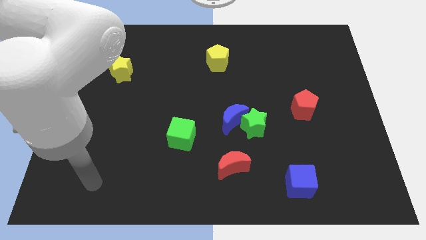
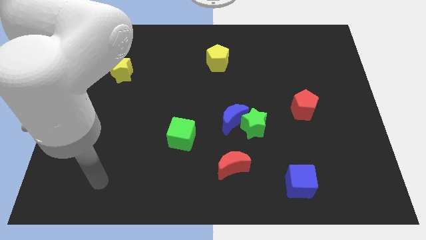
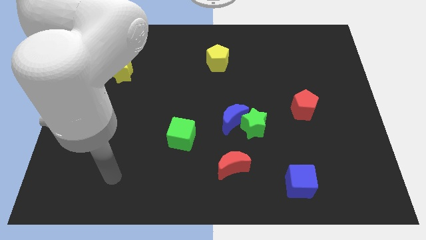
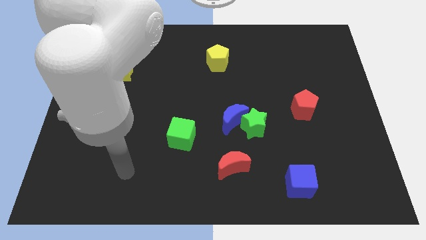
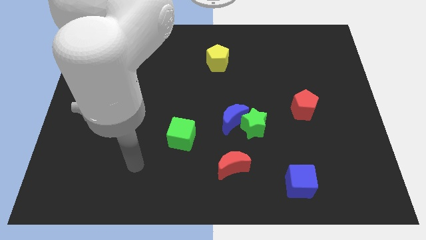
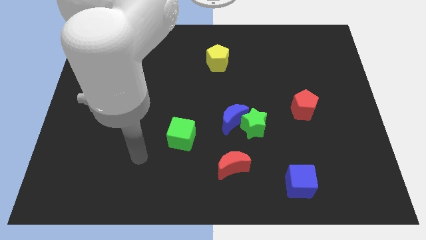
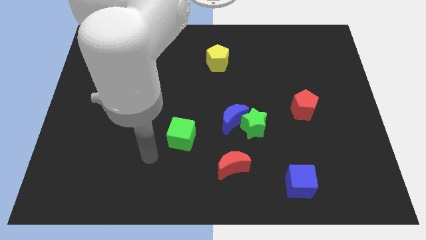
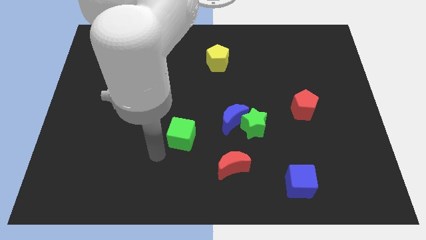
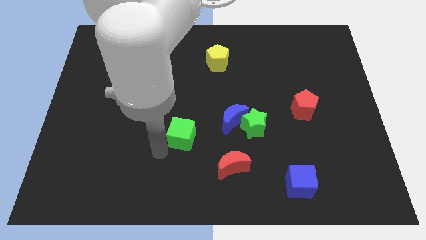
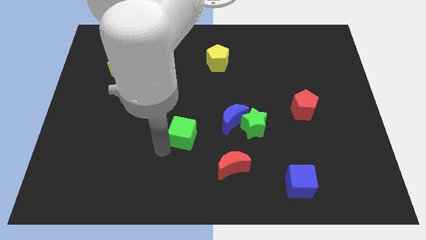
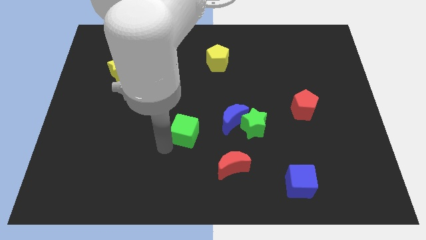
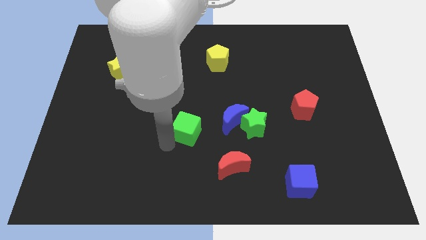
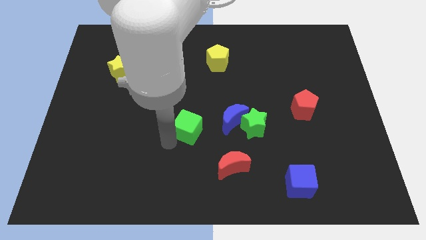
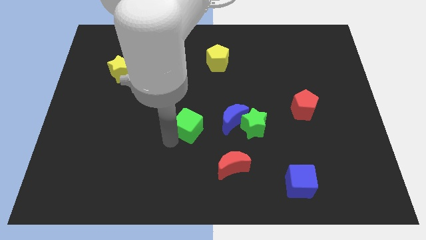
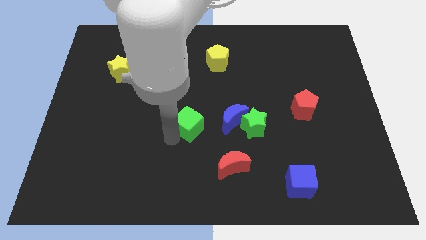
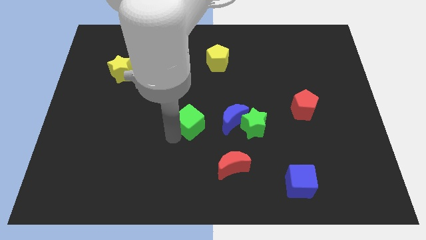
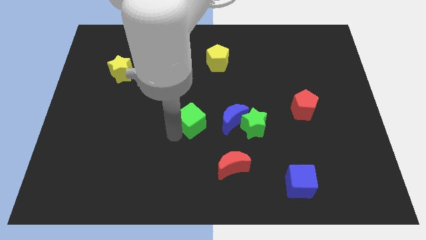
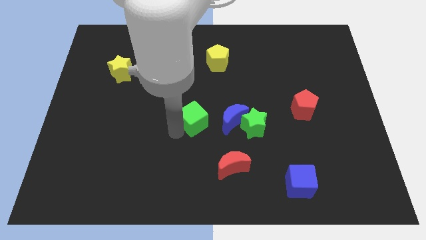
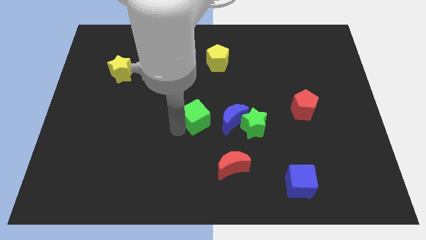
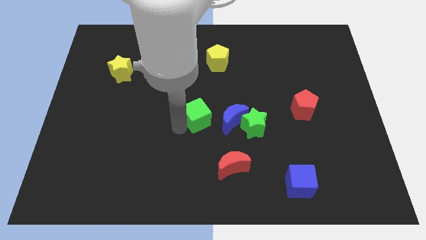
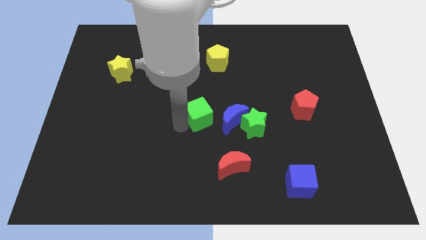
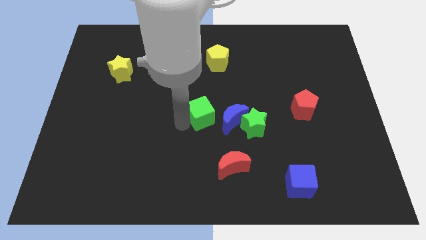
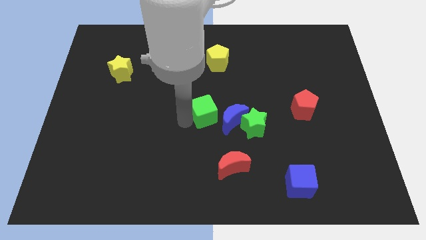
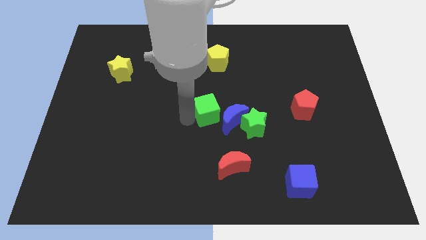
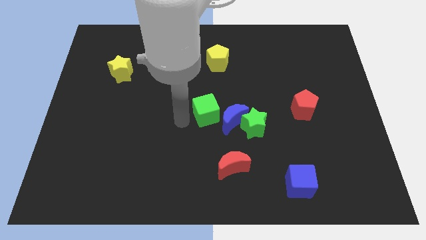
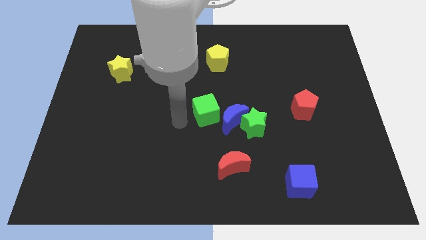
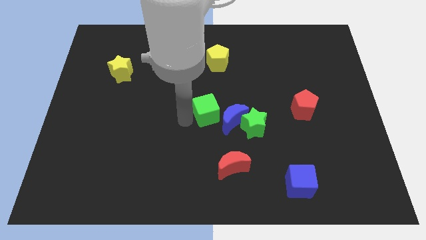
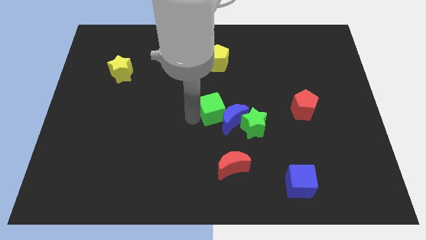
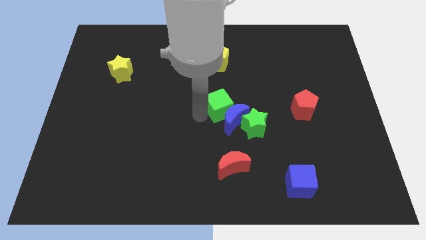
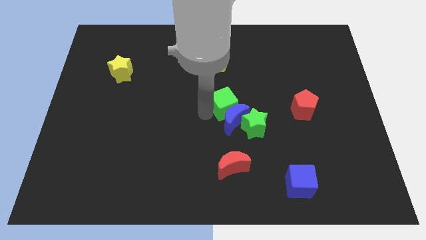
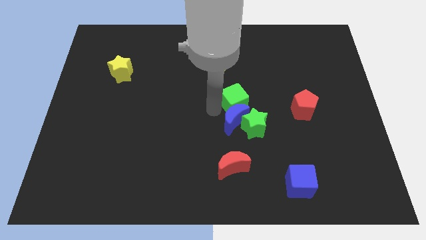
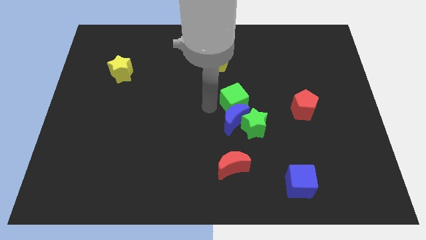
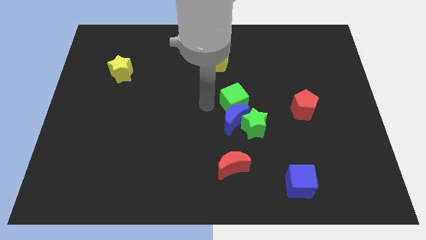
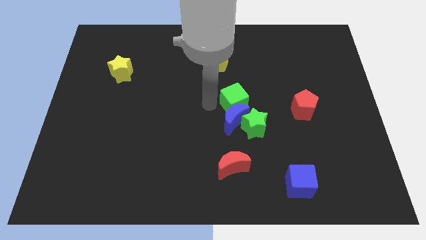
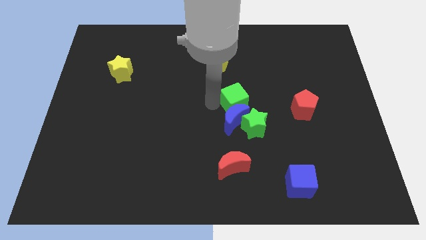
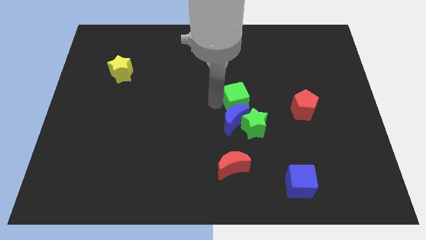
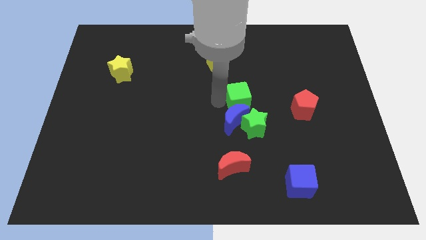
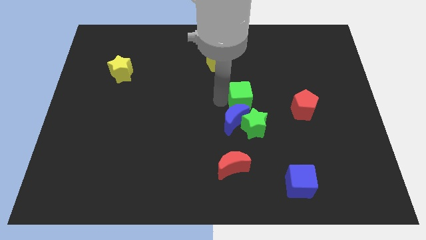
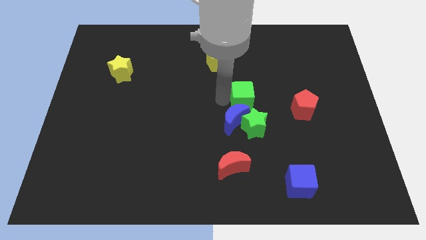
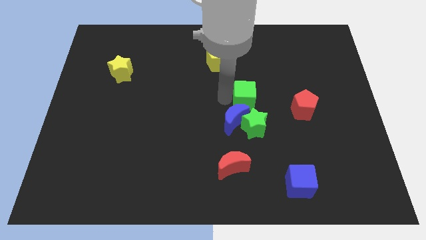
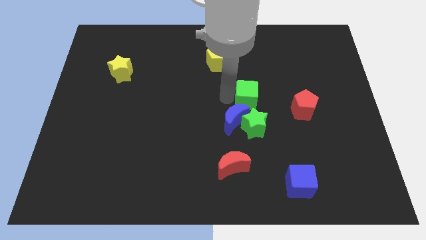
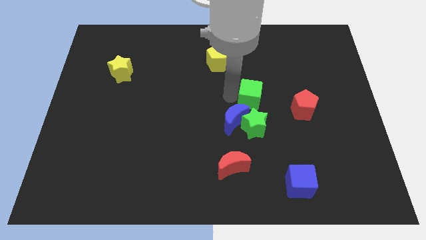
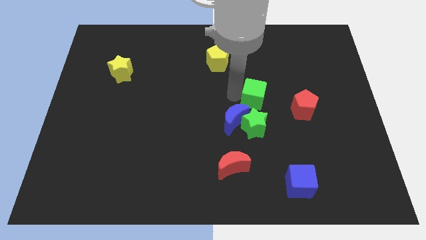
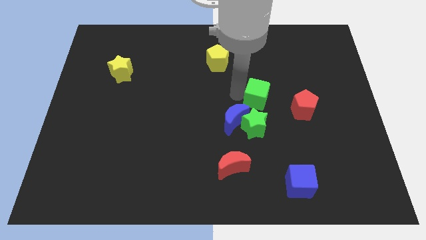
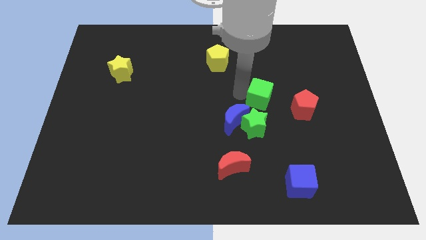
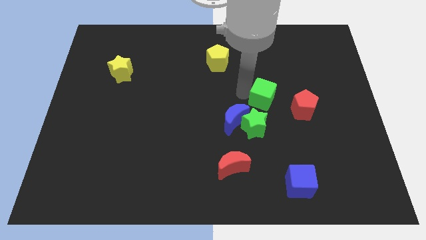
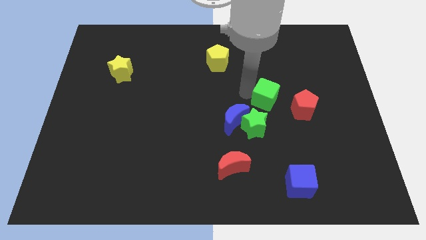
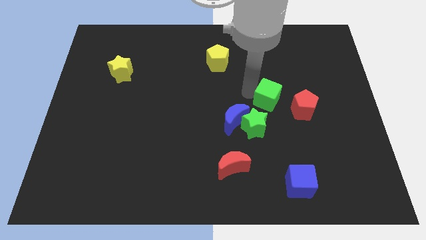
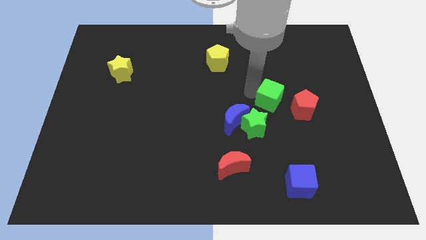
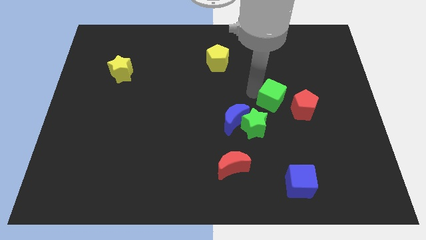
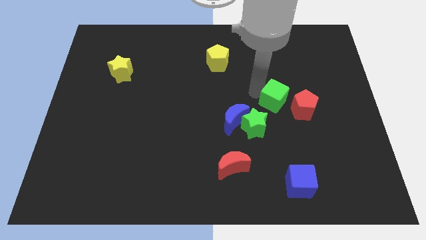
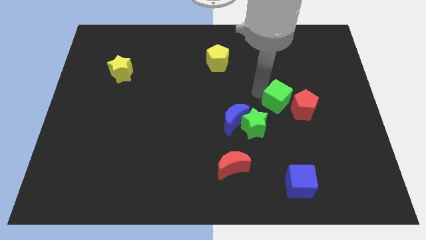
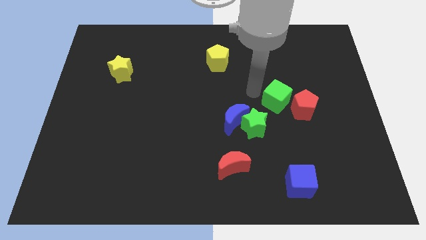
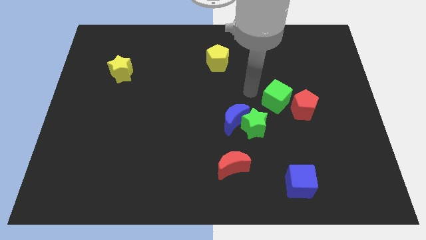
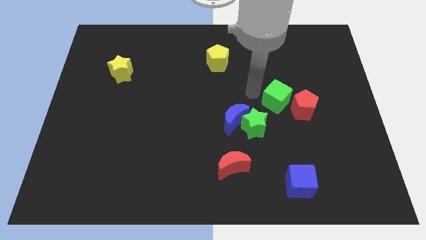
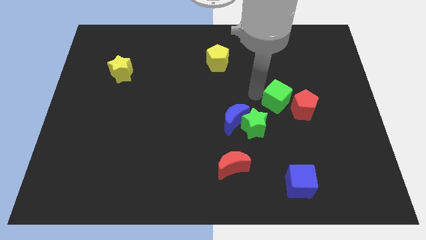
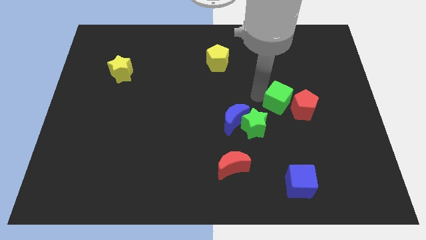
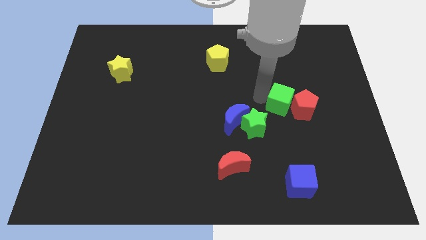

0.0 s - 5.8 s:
move the green cube next to the red pentagon

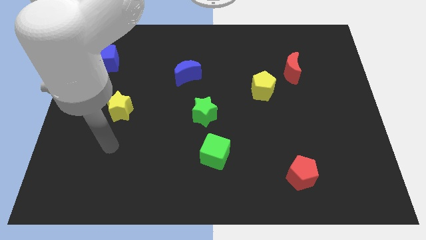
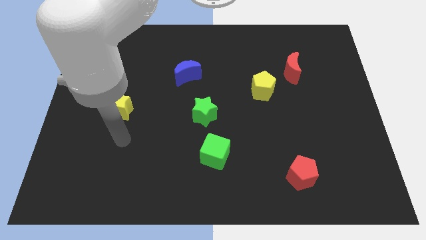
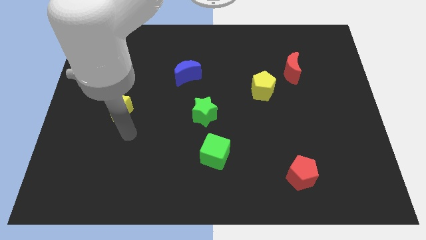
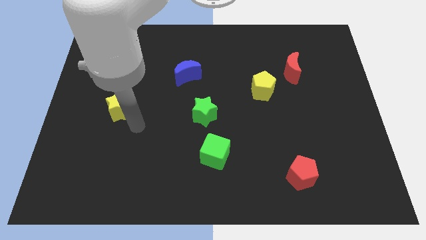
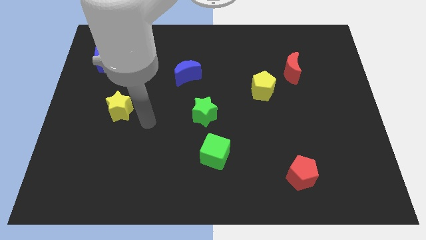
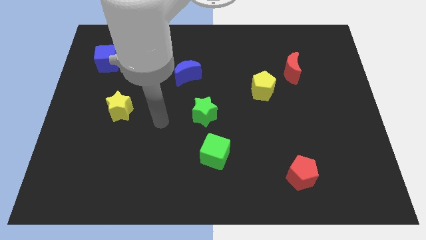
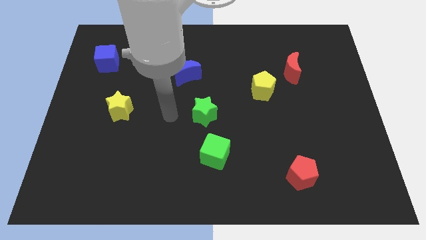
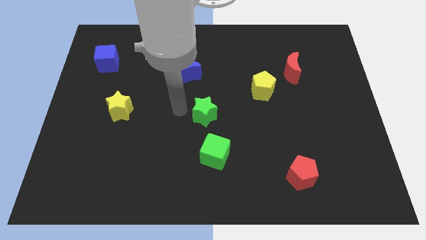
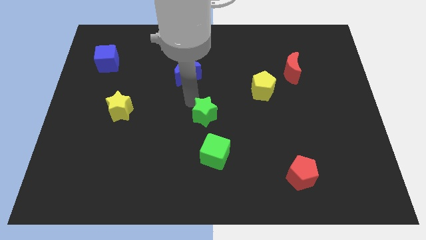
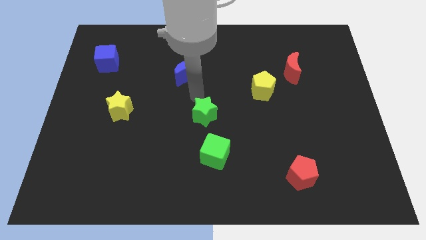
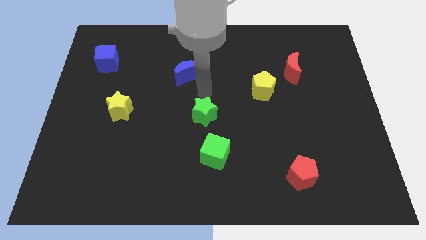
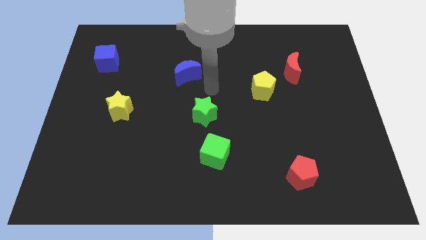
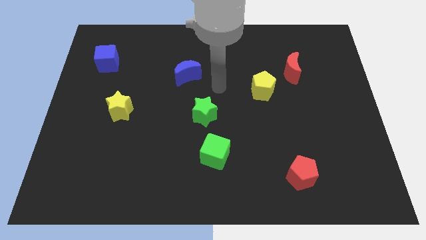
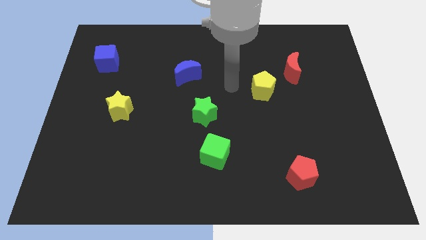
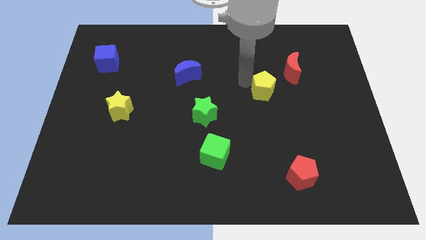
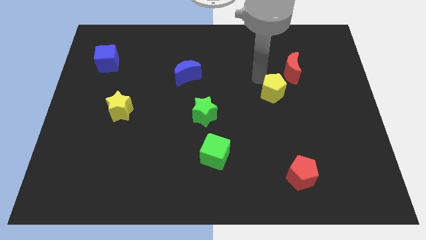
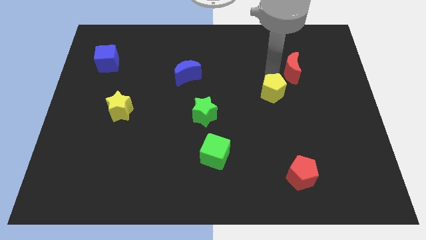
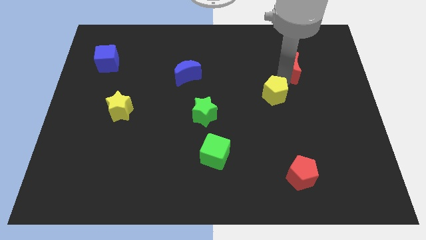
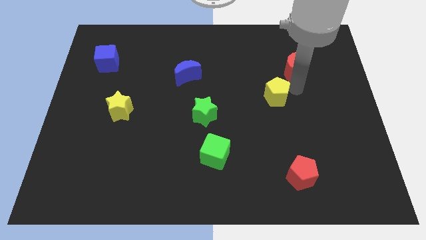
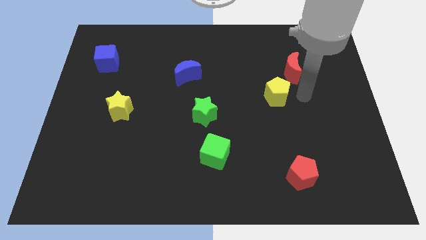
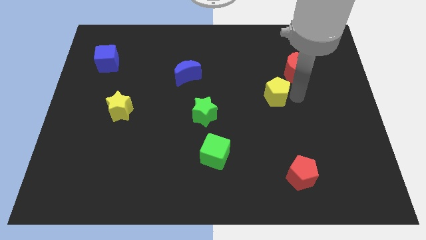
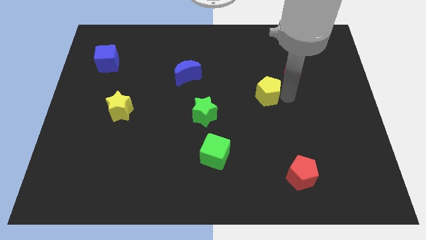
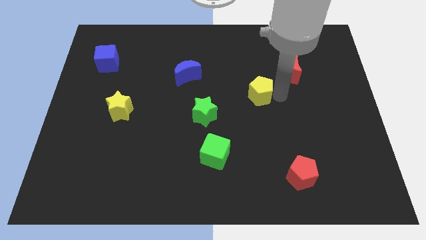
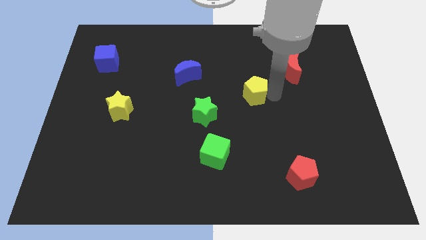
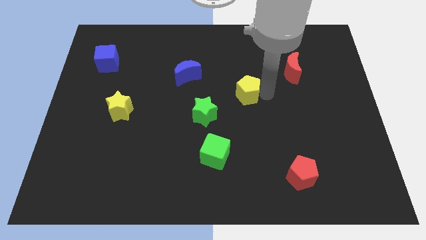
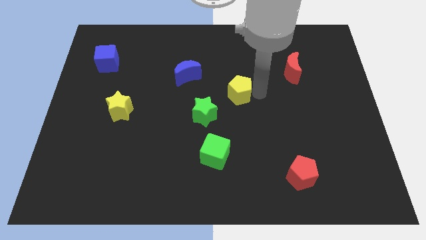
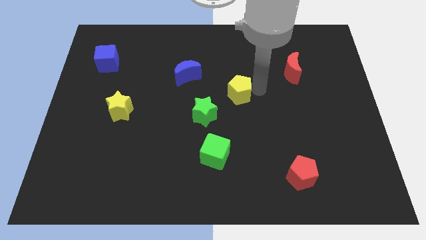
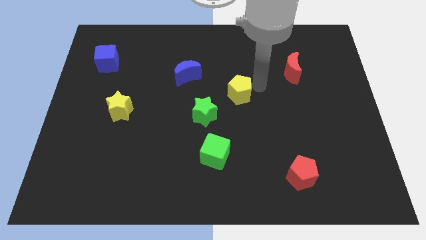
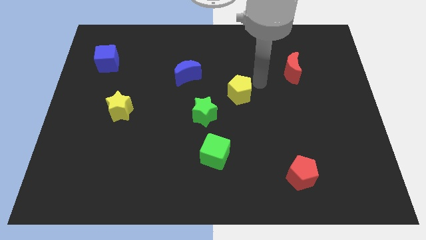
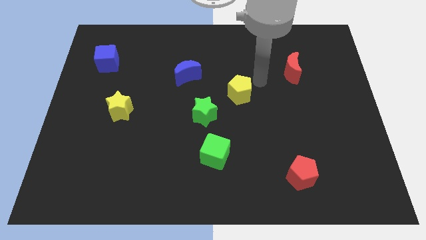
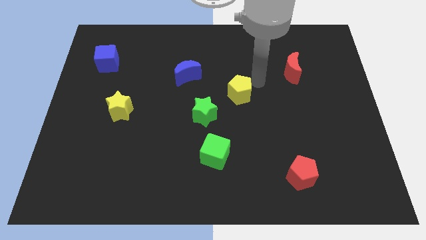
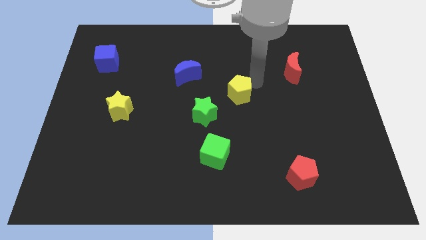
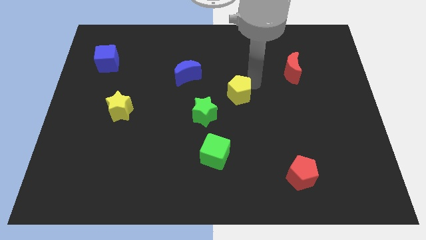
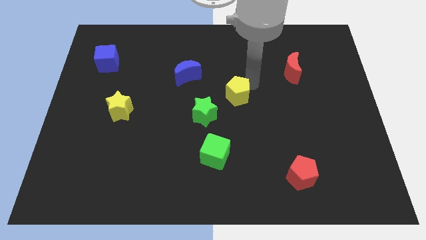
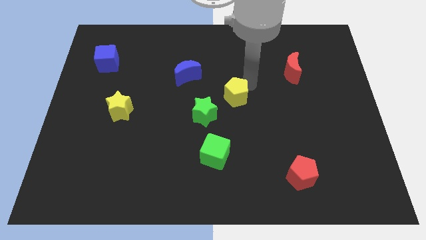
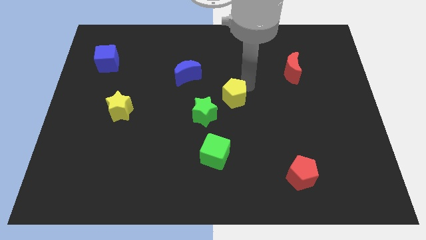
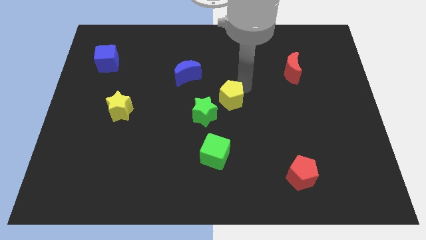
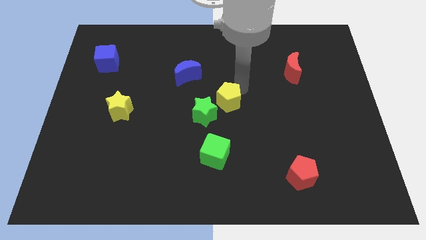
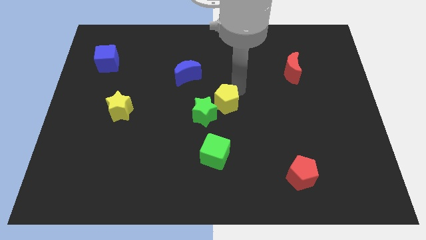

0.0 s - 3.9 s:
move the yellow pentagon next to the green star
